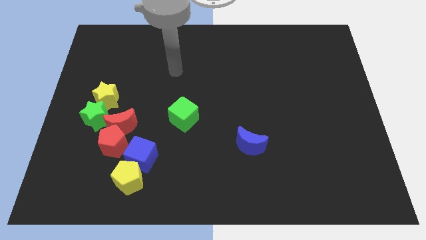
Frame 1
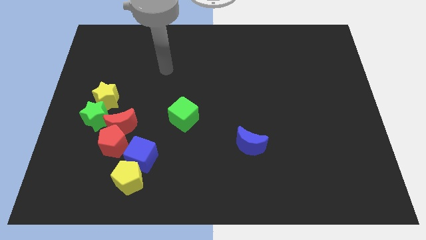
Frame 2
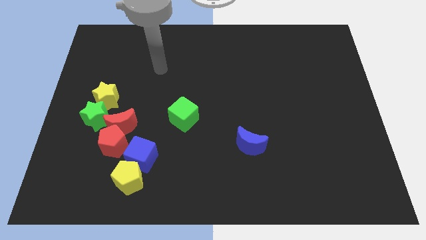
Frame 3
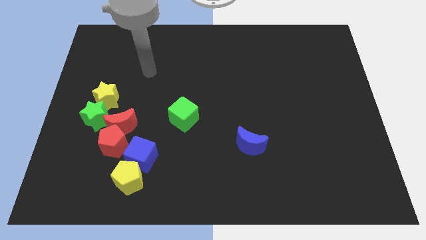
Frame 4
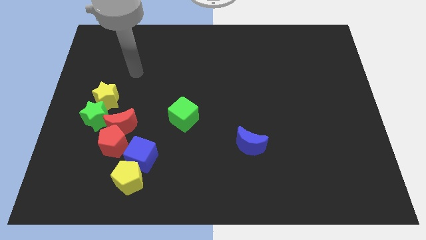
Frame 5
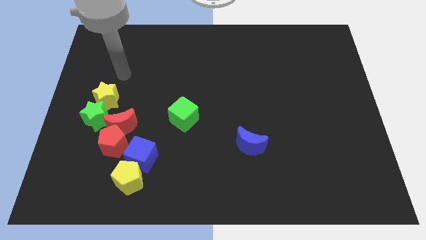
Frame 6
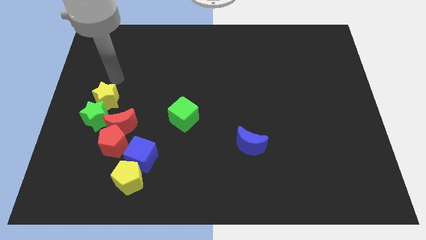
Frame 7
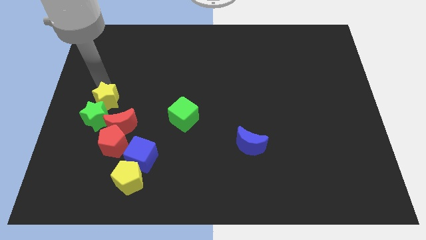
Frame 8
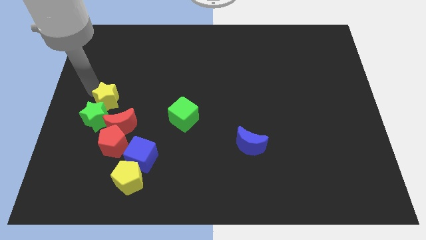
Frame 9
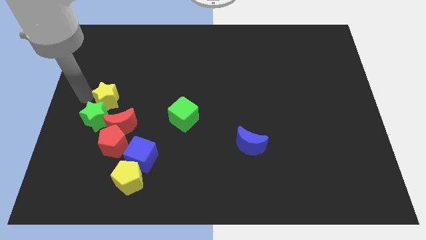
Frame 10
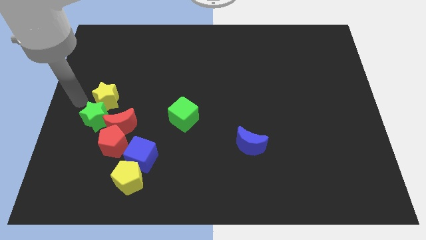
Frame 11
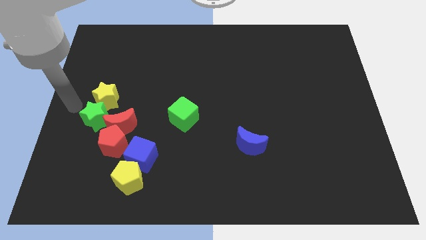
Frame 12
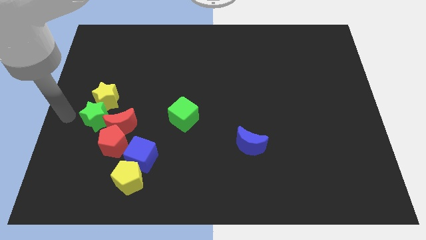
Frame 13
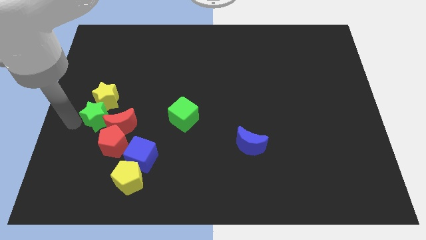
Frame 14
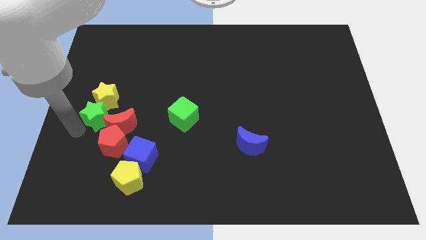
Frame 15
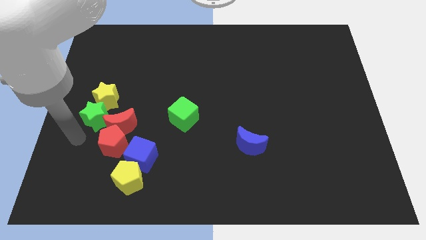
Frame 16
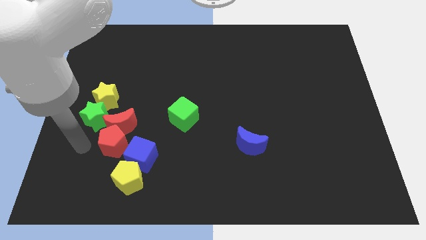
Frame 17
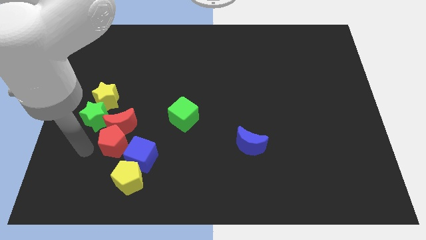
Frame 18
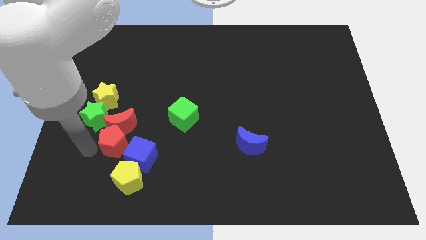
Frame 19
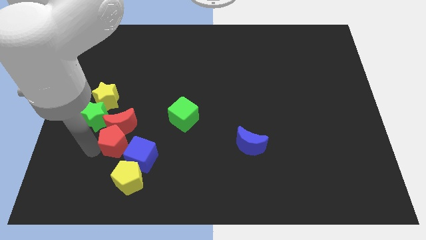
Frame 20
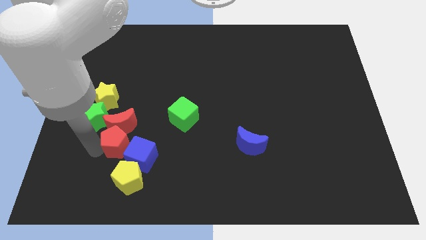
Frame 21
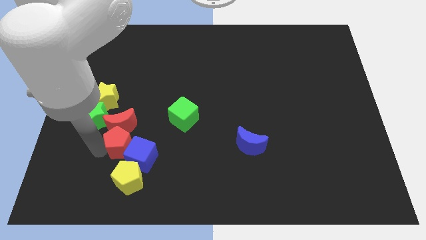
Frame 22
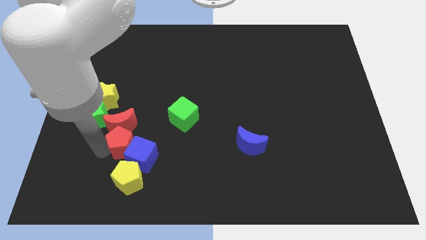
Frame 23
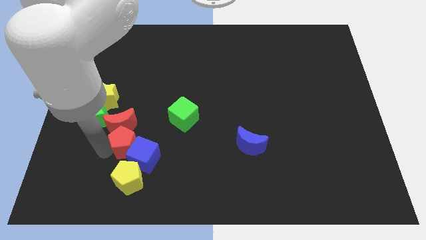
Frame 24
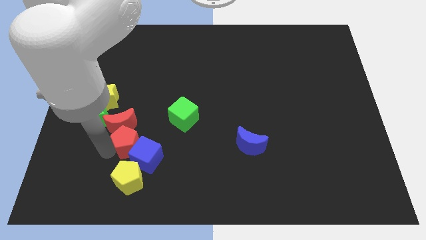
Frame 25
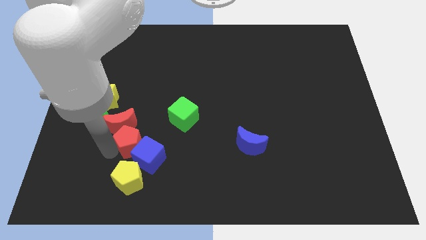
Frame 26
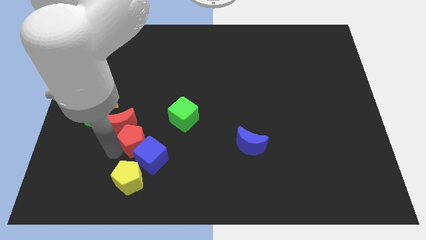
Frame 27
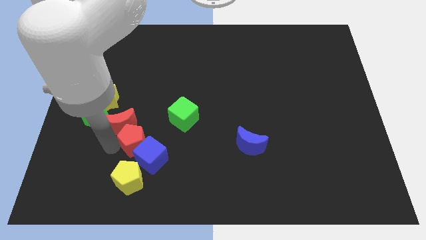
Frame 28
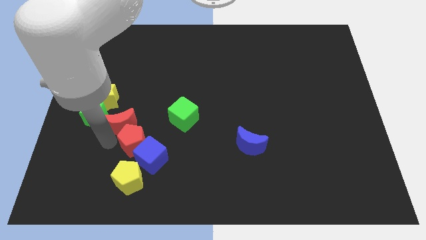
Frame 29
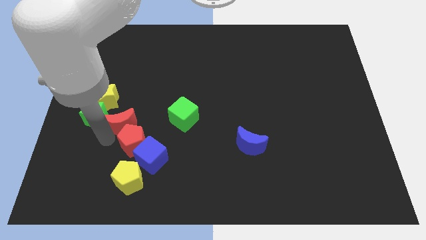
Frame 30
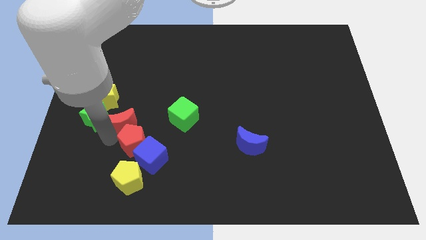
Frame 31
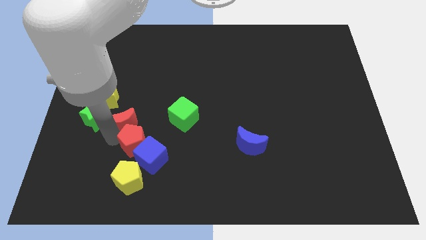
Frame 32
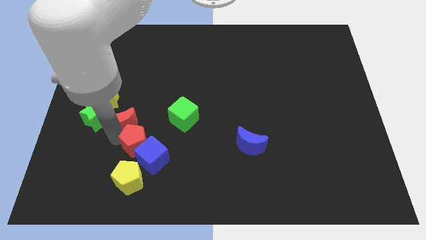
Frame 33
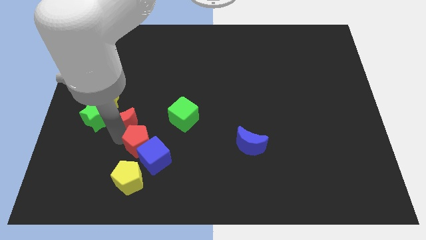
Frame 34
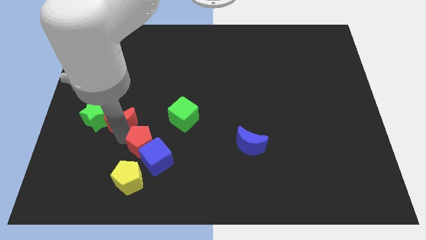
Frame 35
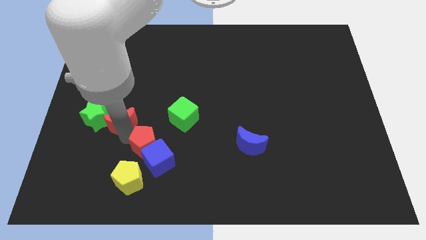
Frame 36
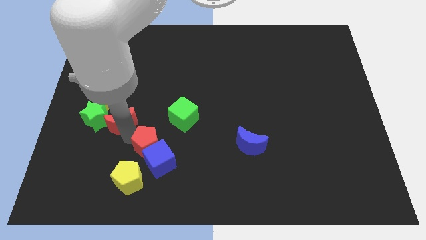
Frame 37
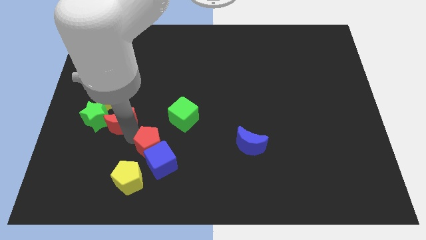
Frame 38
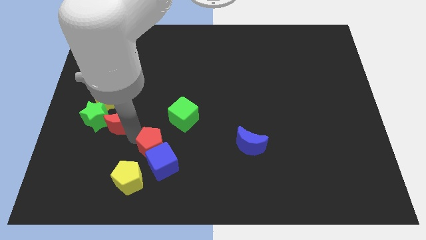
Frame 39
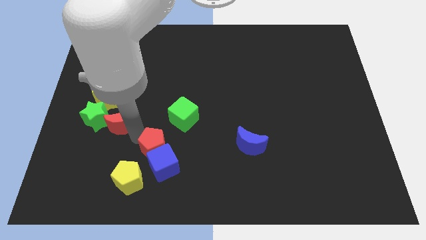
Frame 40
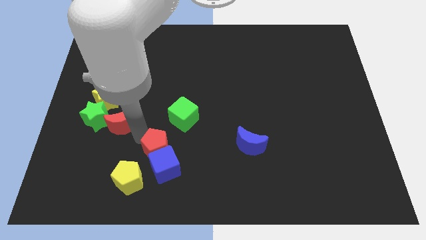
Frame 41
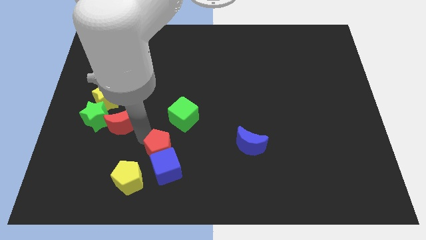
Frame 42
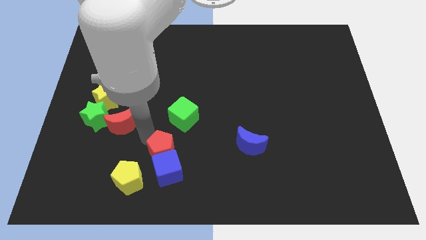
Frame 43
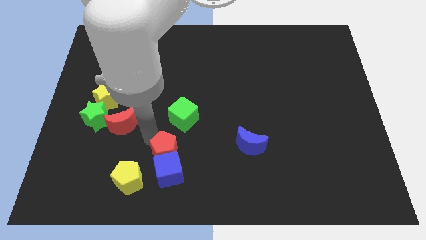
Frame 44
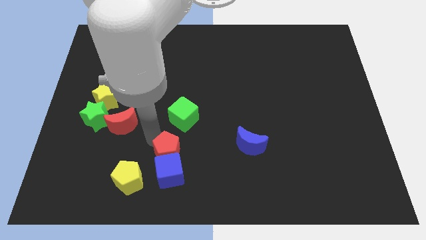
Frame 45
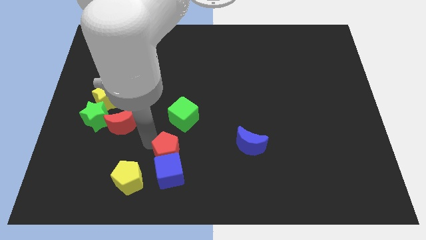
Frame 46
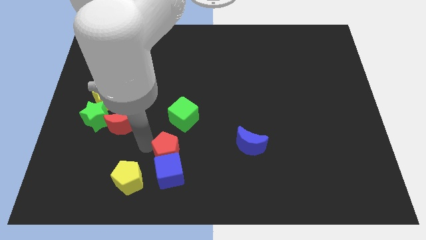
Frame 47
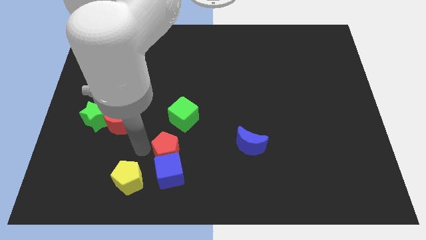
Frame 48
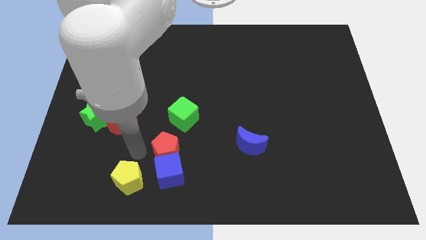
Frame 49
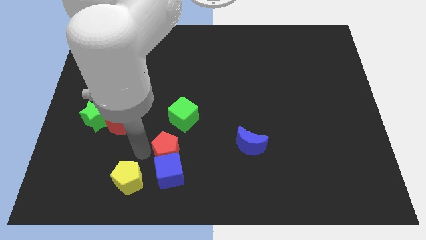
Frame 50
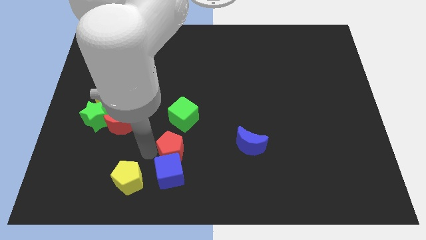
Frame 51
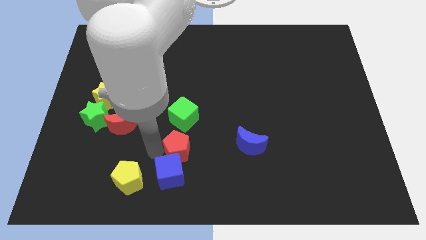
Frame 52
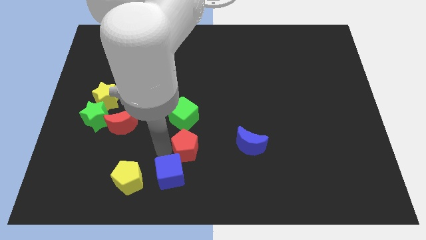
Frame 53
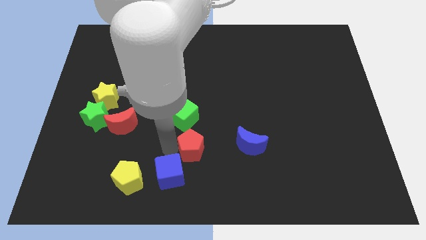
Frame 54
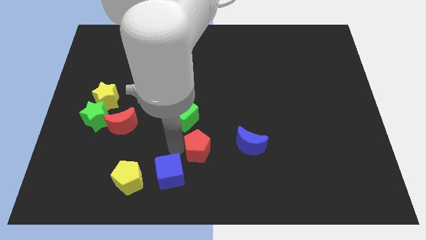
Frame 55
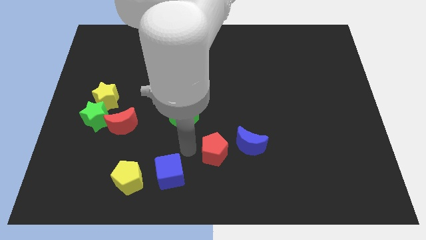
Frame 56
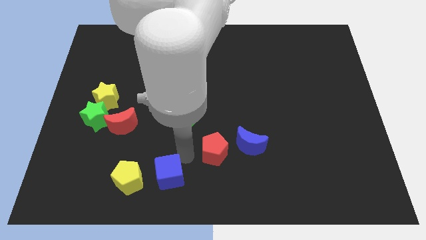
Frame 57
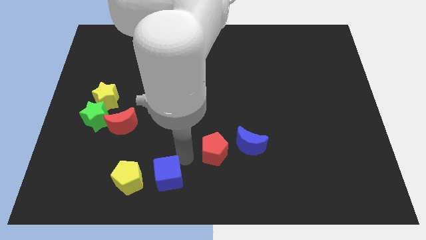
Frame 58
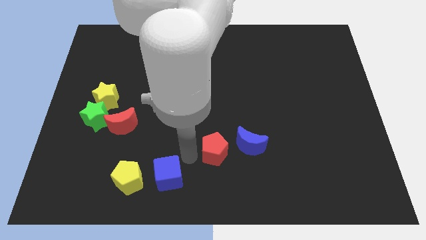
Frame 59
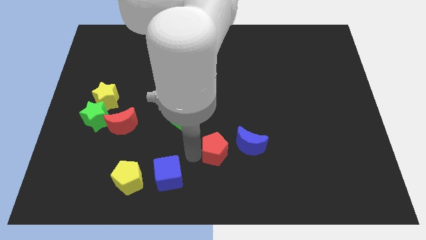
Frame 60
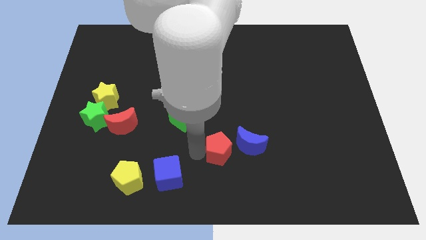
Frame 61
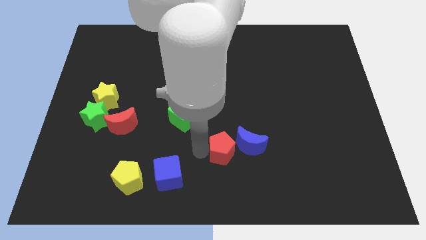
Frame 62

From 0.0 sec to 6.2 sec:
move the red pentagon towards the blue moon

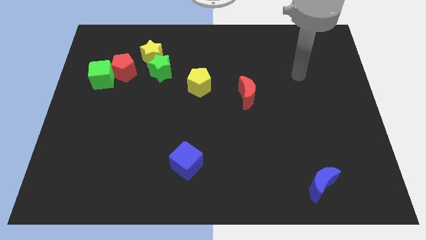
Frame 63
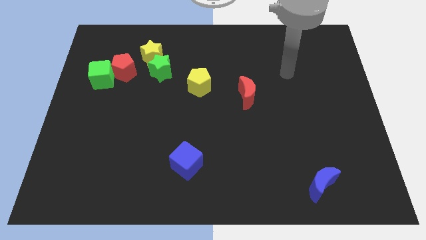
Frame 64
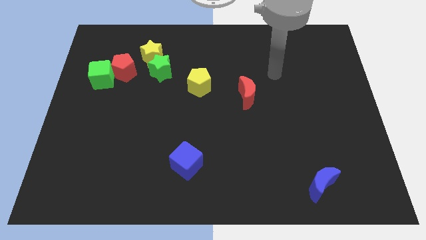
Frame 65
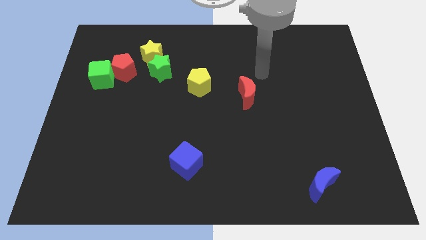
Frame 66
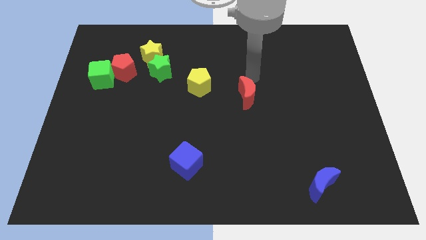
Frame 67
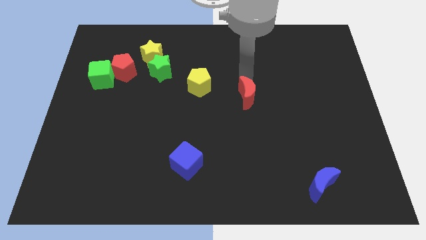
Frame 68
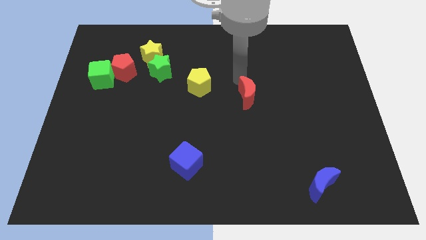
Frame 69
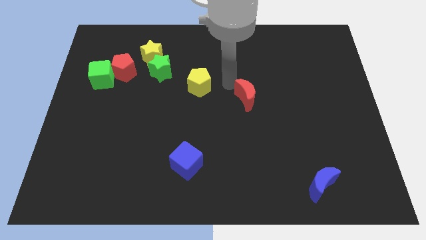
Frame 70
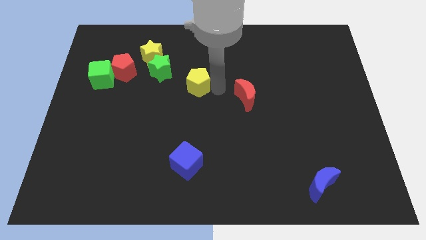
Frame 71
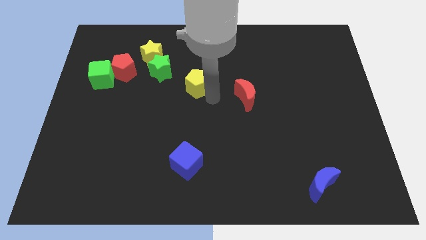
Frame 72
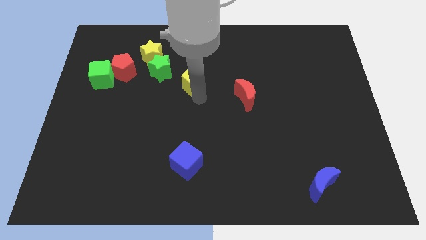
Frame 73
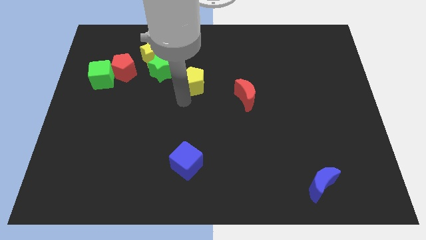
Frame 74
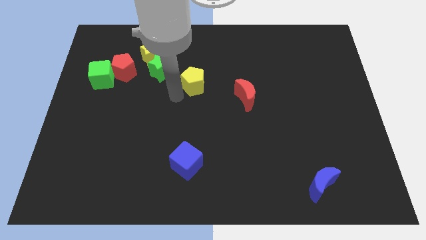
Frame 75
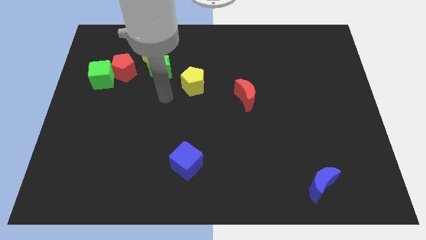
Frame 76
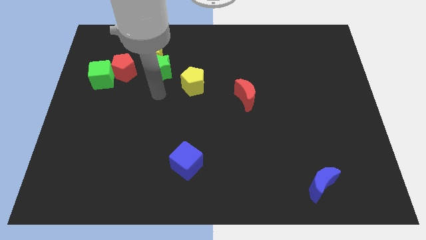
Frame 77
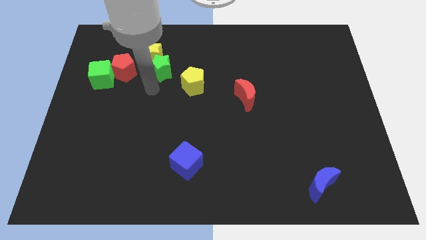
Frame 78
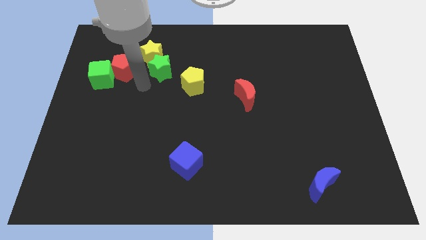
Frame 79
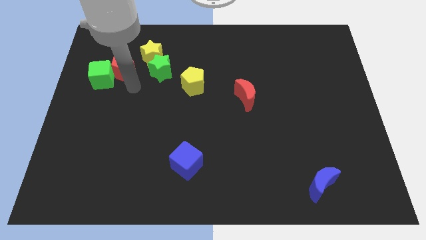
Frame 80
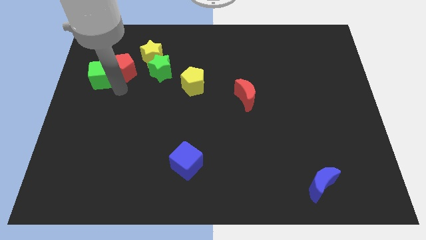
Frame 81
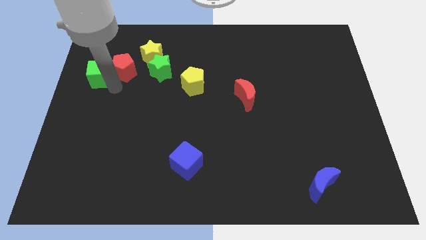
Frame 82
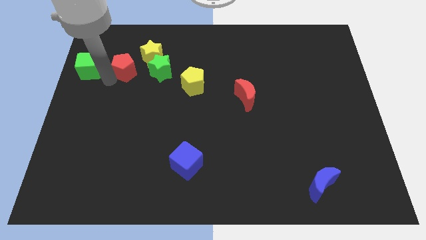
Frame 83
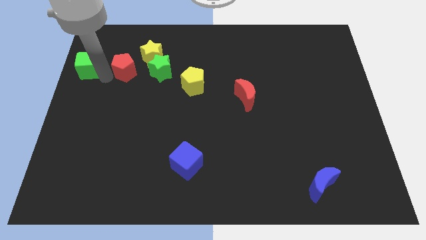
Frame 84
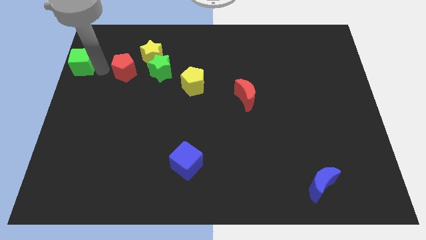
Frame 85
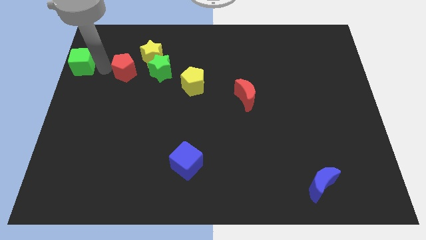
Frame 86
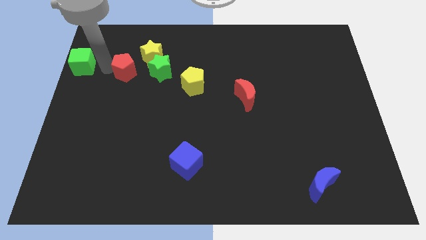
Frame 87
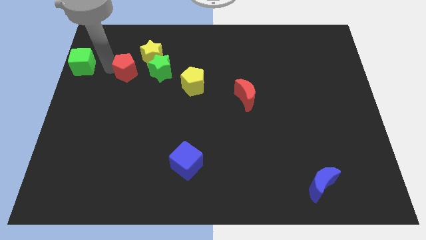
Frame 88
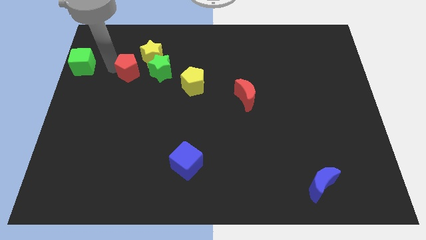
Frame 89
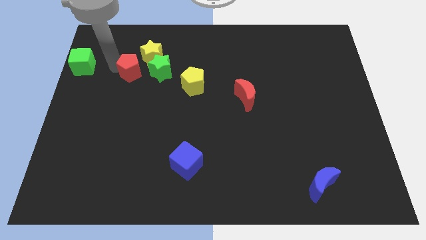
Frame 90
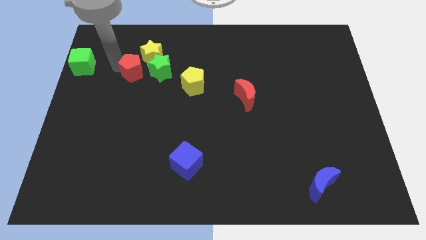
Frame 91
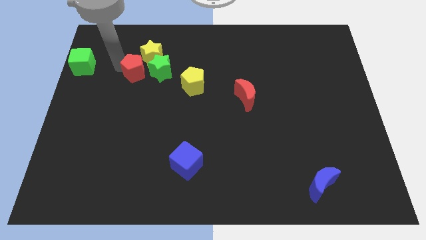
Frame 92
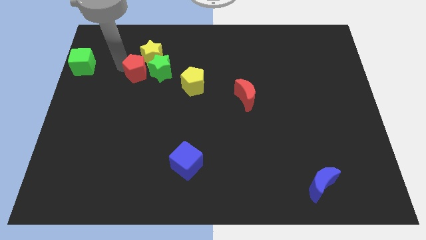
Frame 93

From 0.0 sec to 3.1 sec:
put the red pentagon towards the green star
